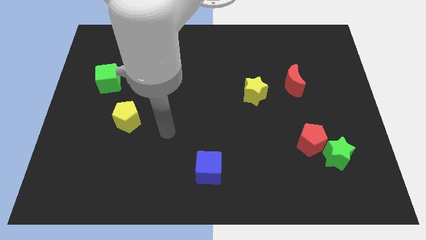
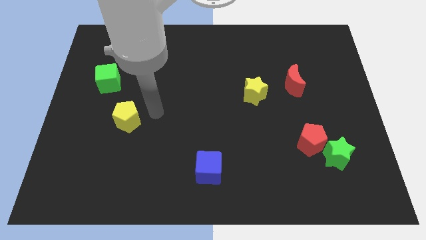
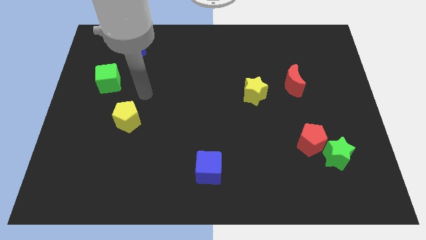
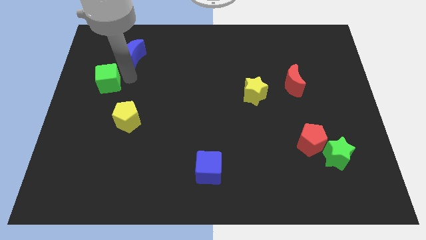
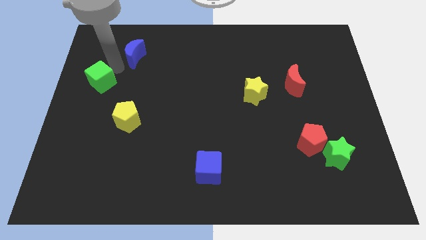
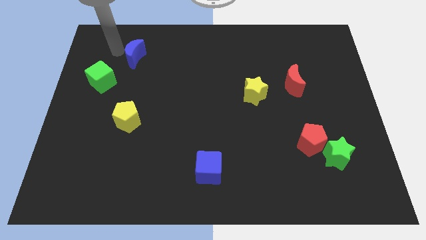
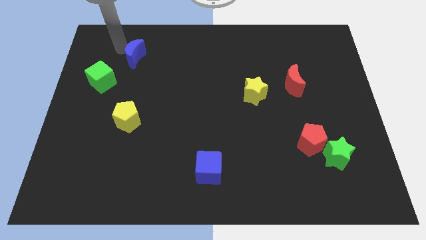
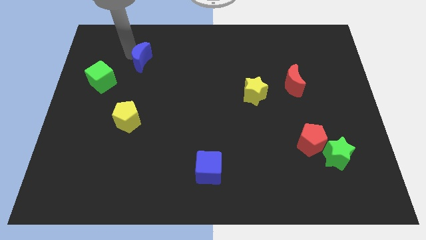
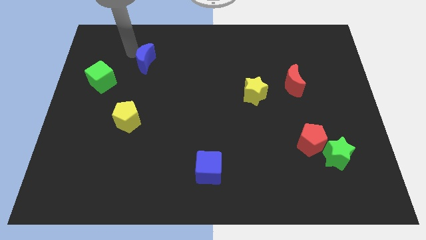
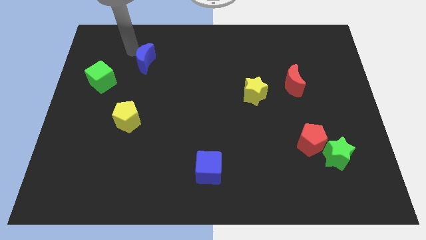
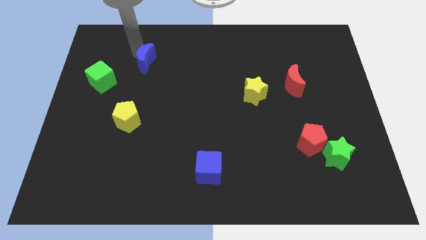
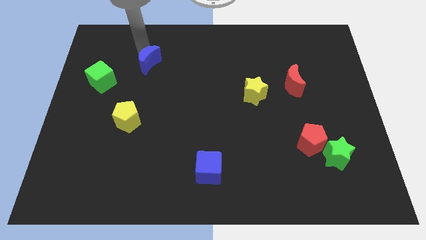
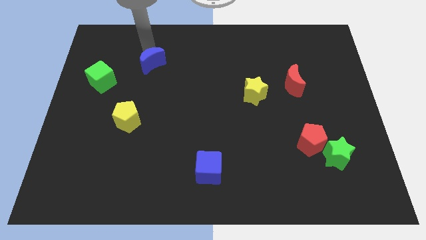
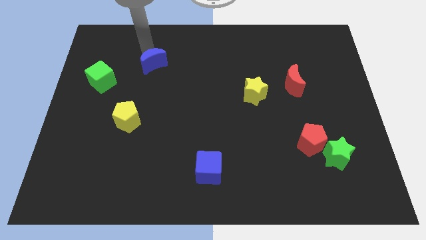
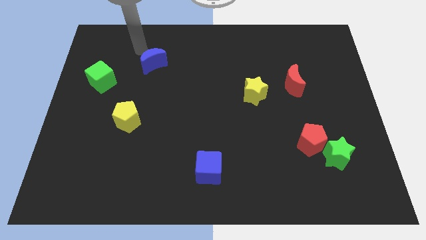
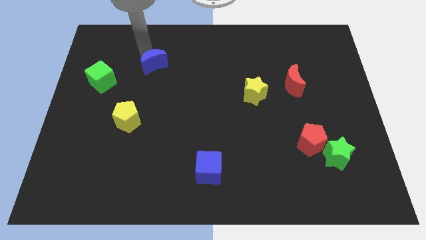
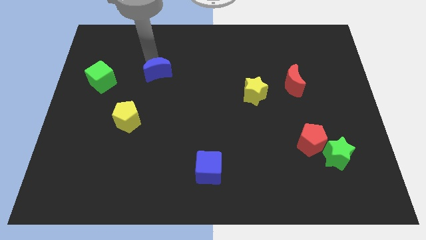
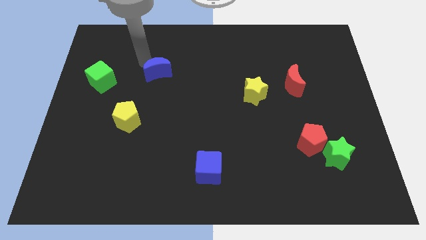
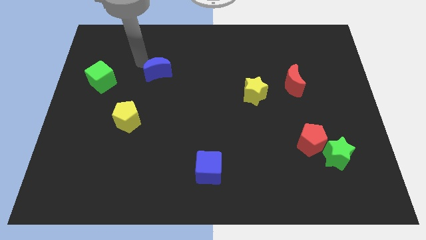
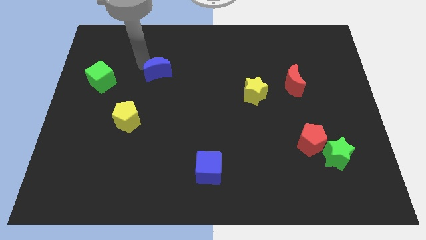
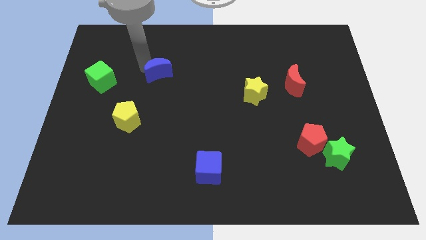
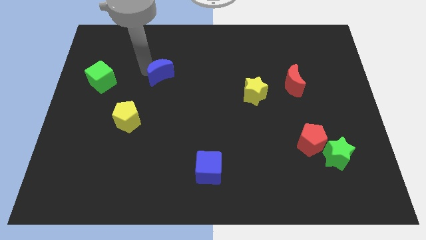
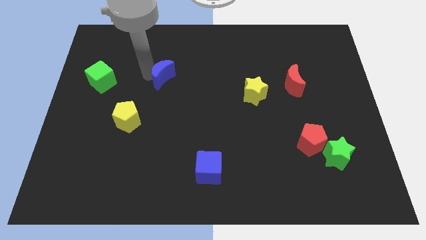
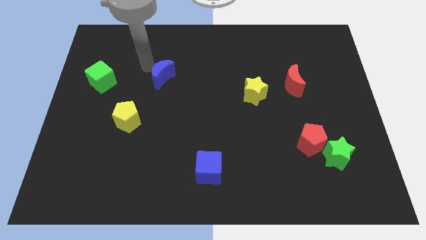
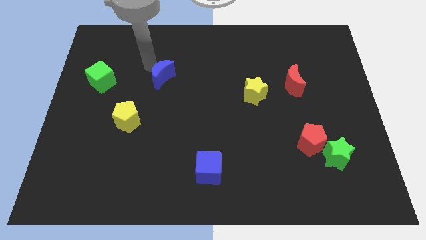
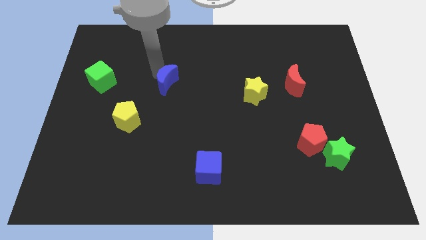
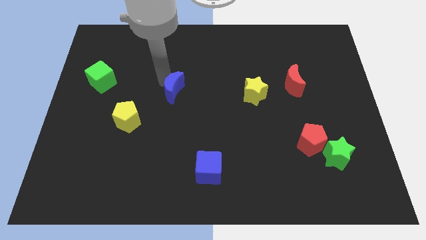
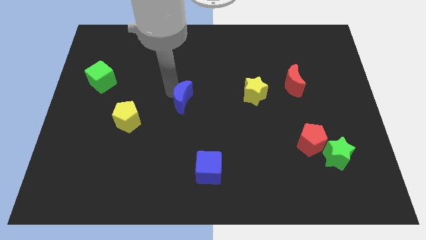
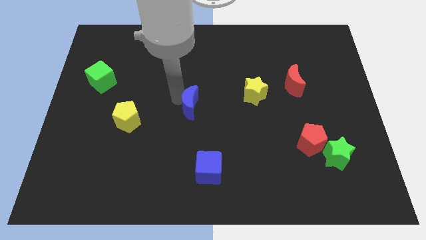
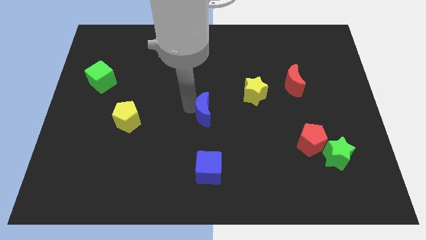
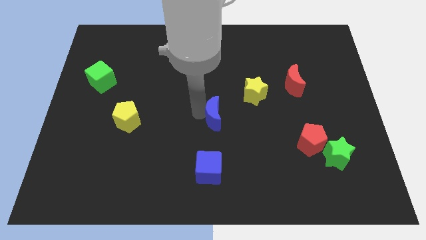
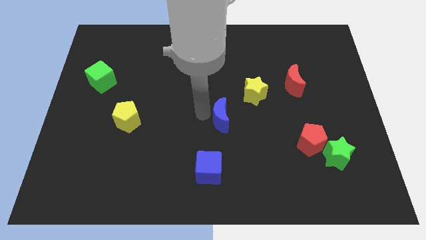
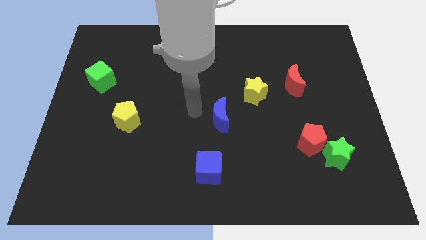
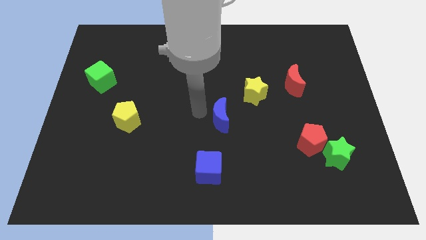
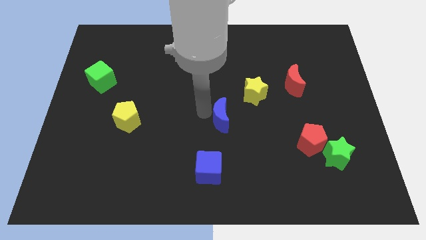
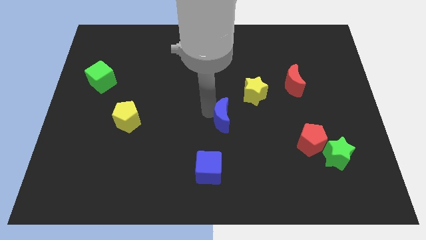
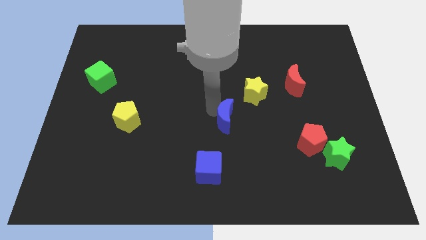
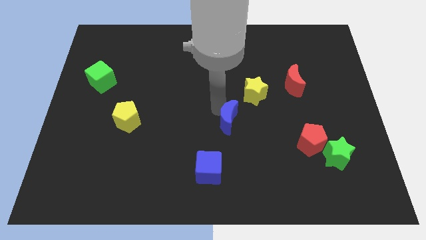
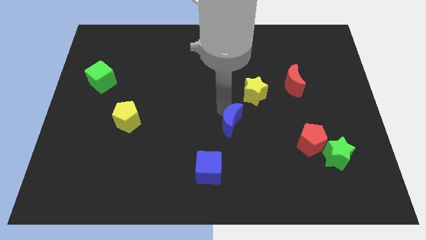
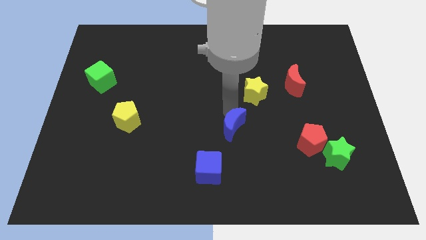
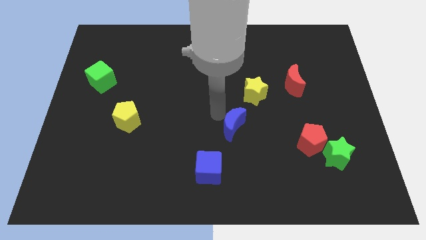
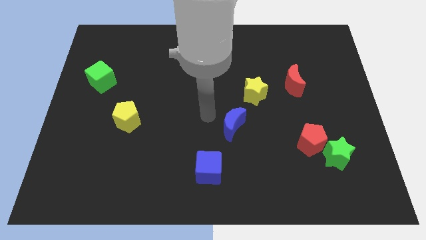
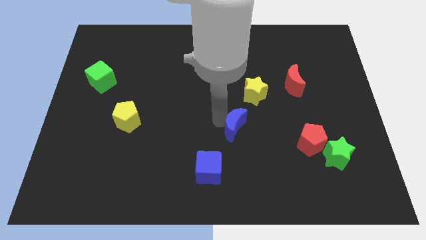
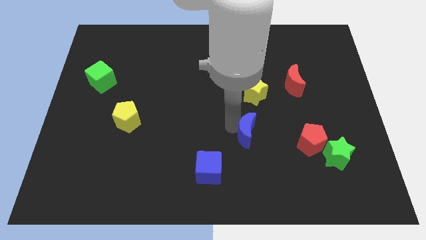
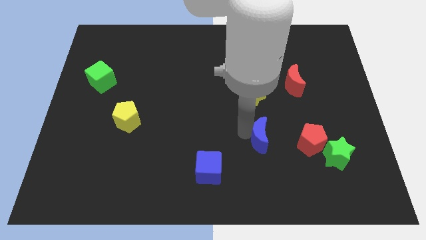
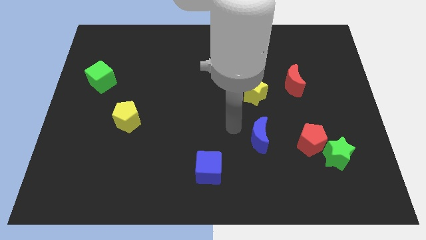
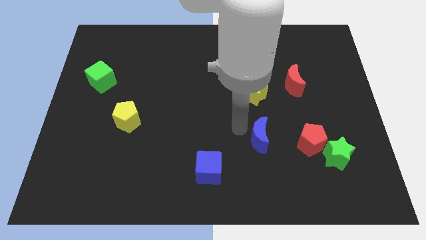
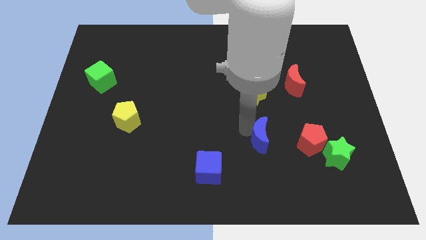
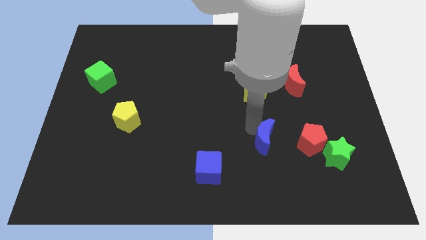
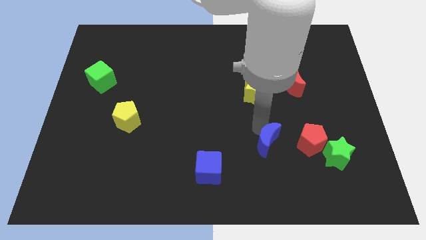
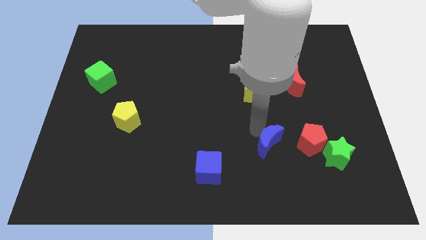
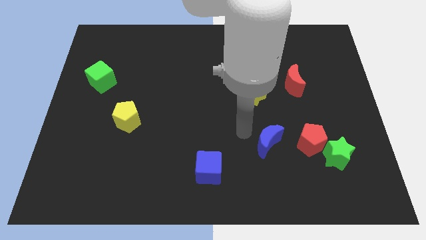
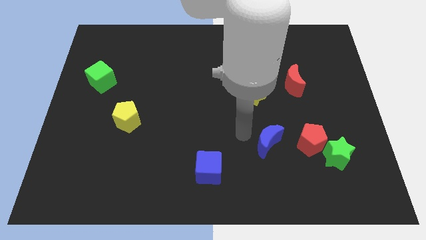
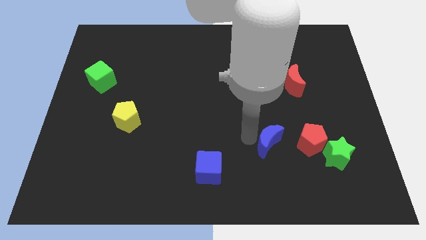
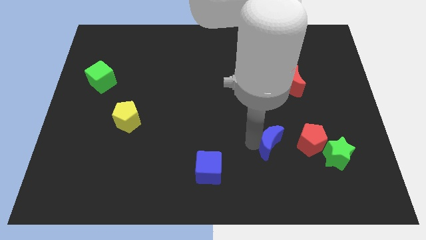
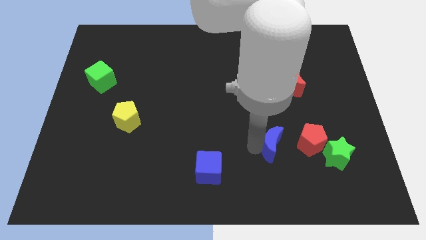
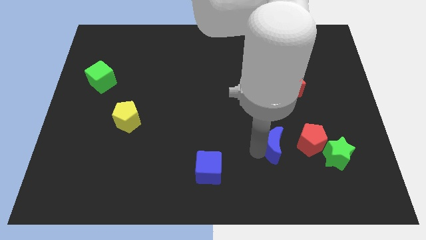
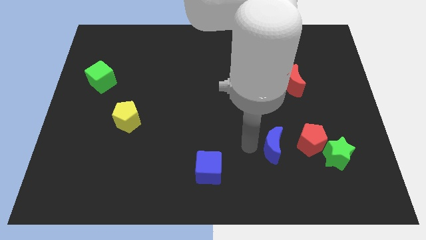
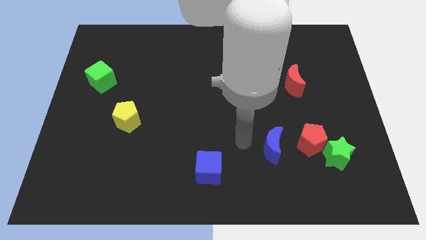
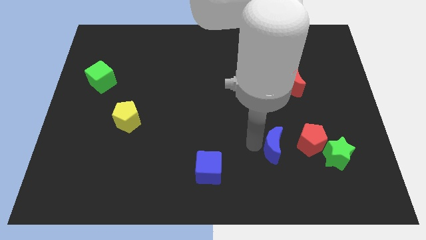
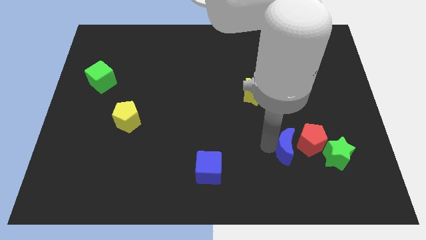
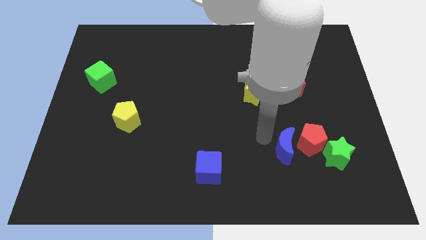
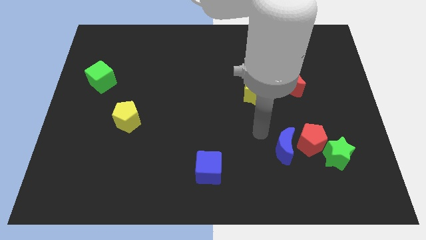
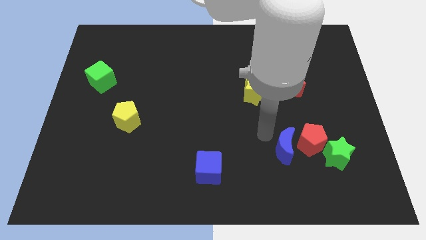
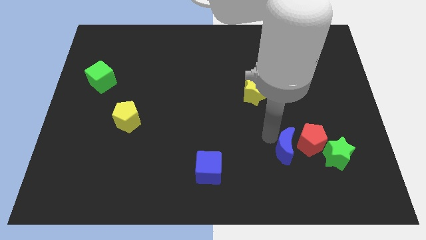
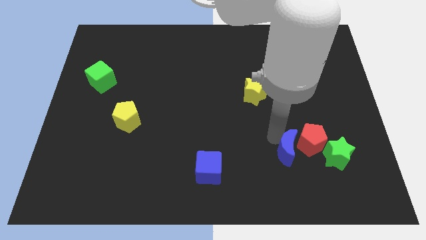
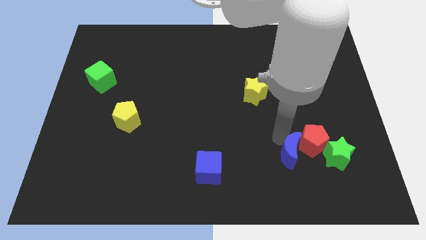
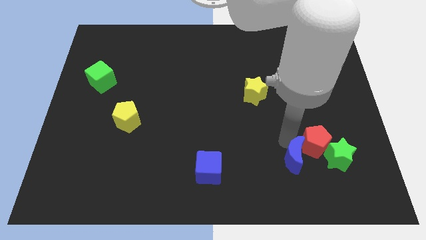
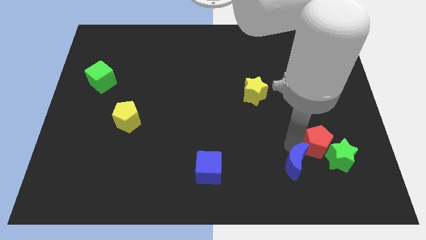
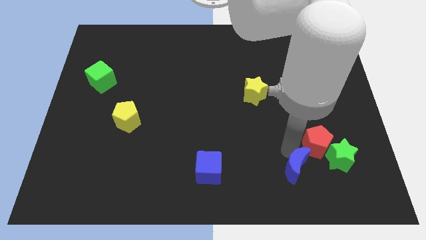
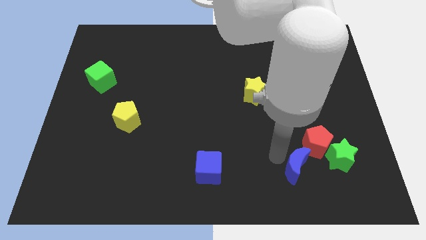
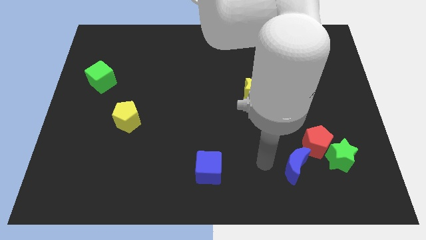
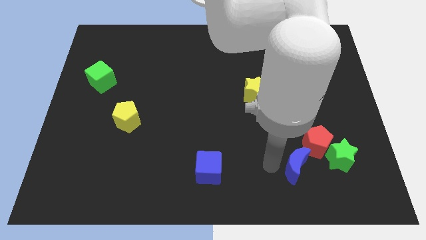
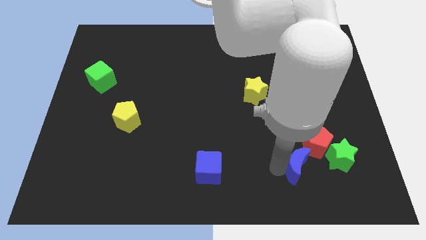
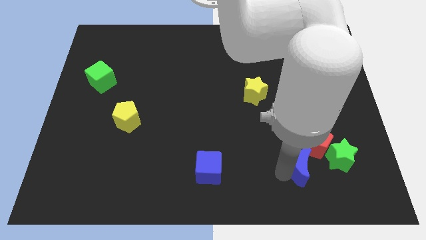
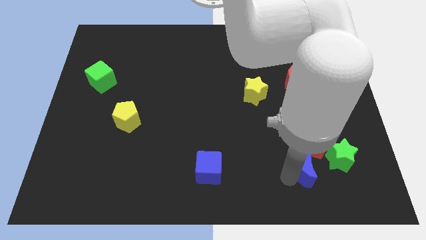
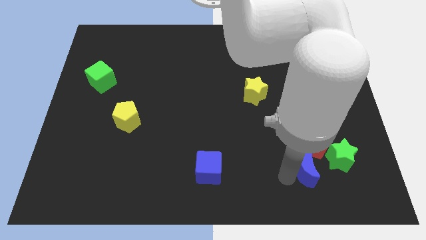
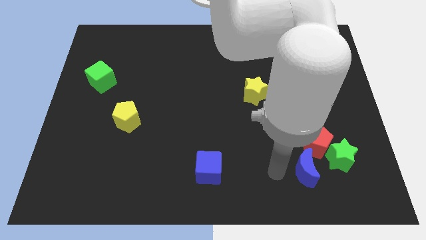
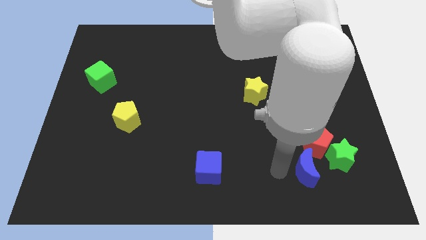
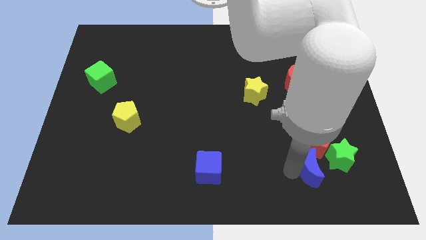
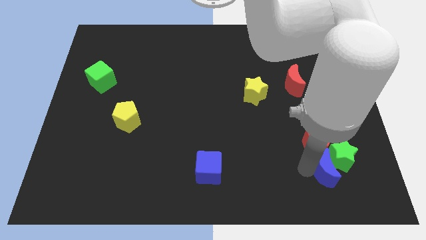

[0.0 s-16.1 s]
push the blue moon diagonally down and to the right of the red pentagon
